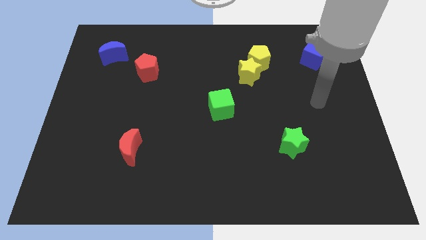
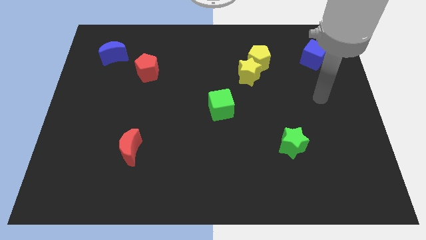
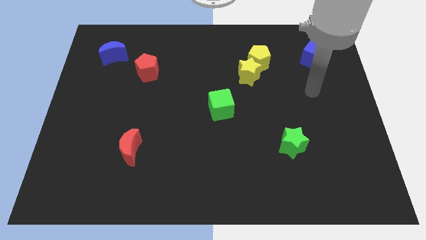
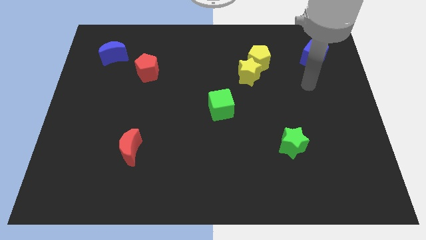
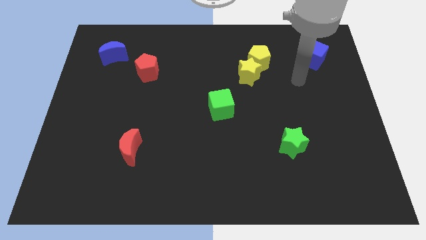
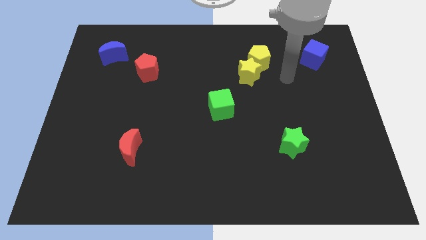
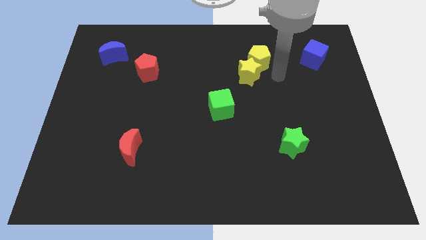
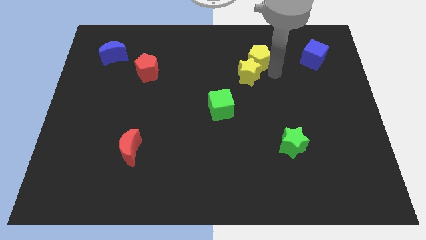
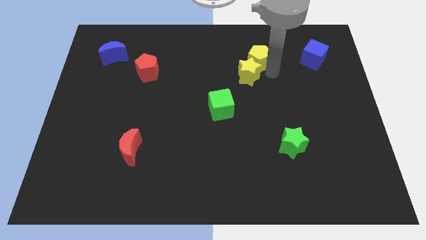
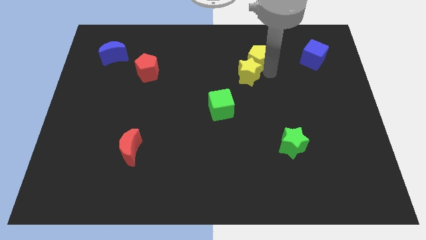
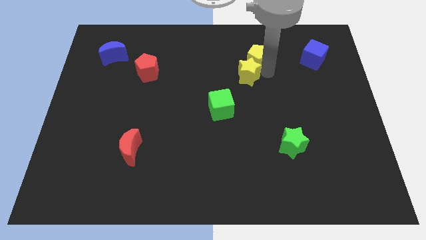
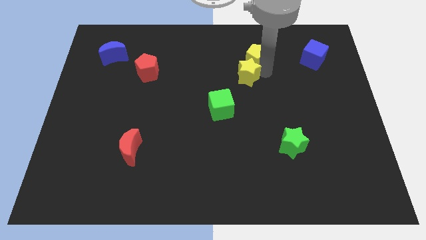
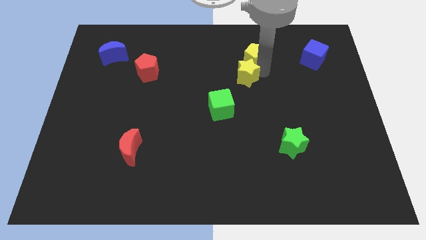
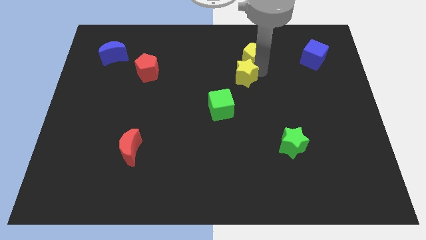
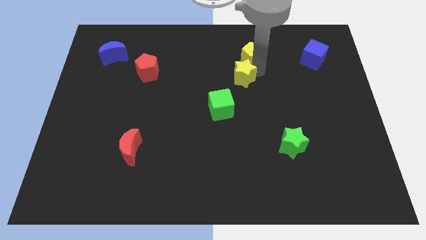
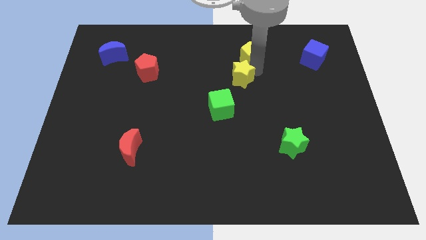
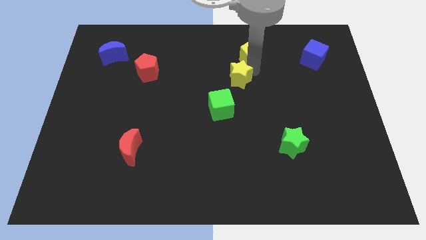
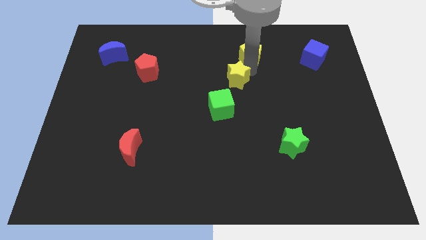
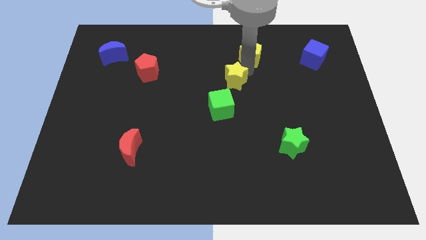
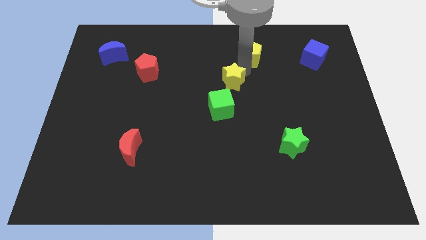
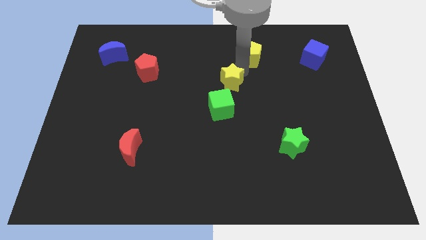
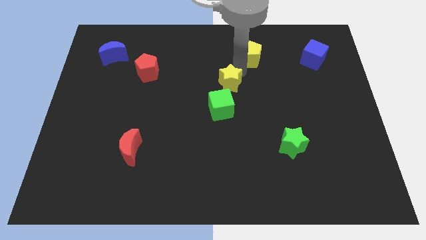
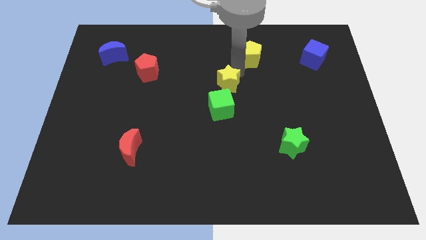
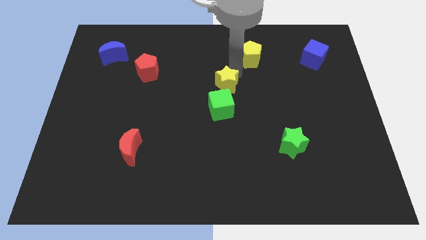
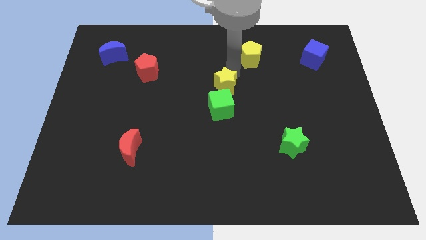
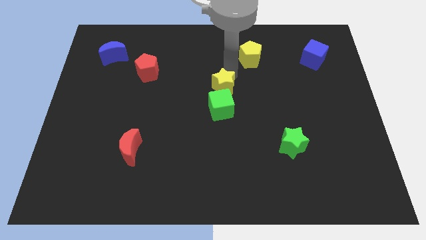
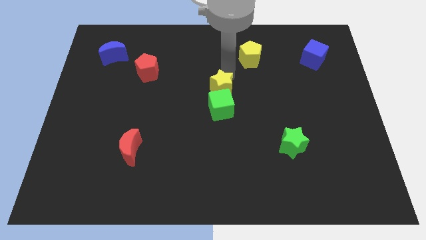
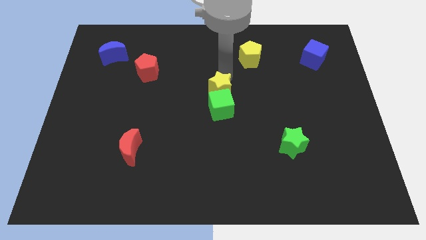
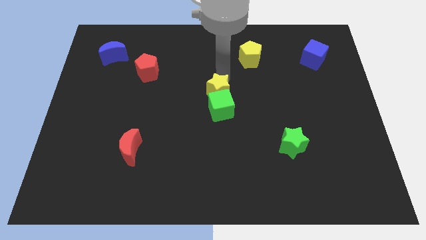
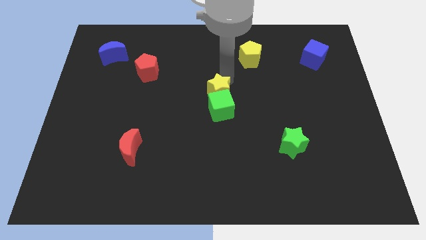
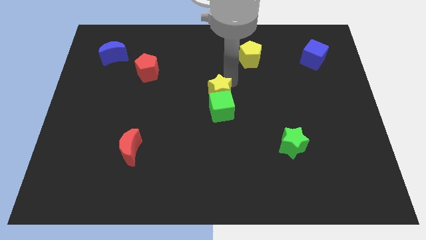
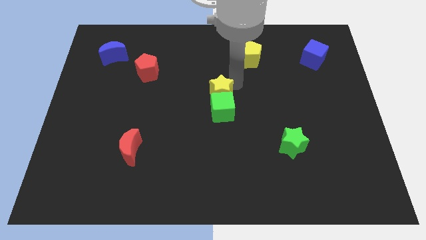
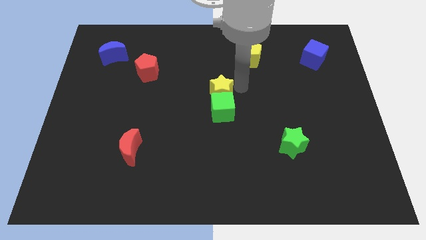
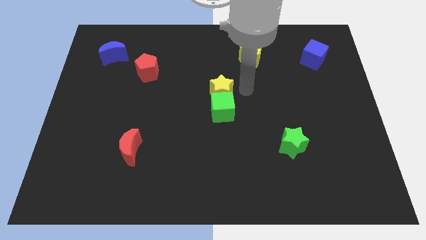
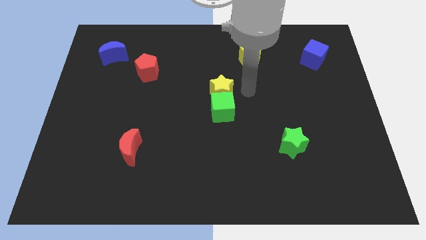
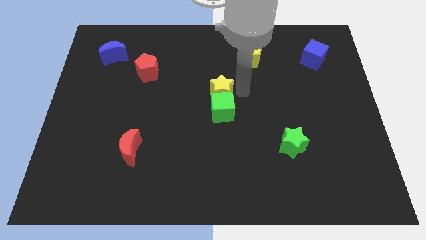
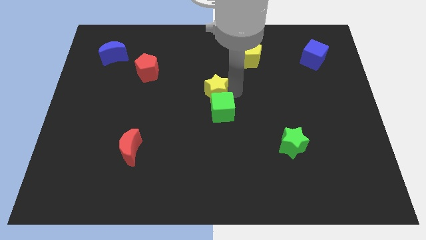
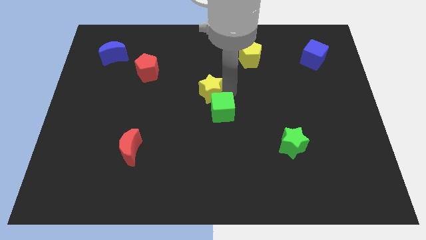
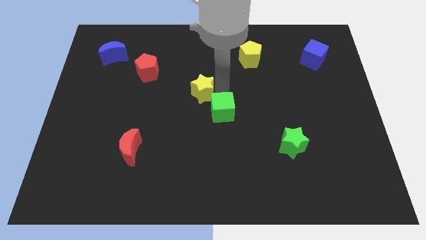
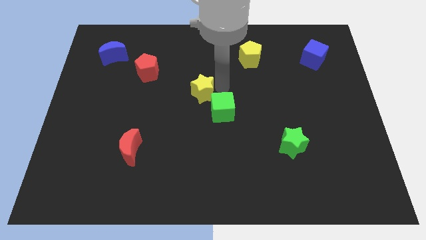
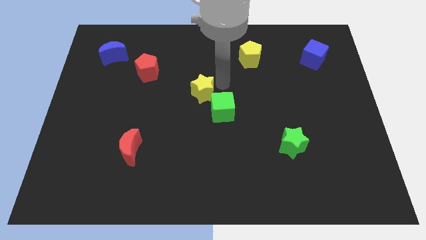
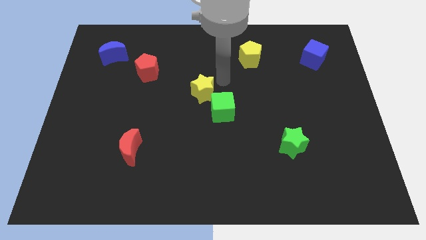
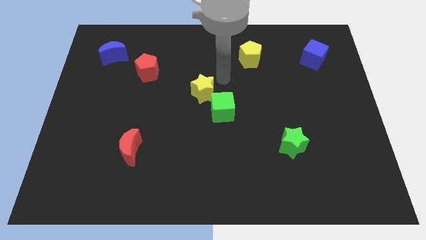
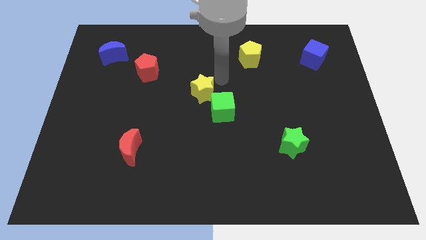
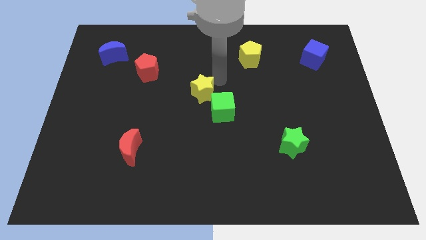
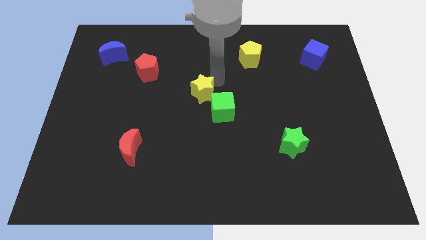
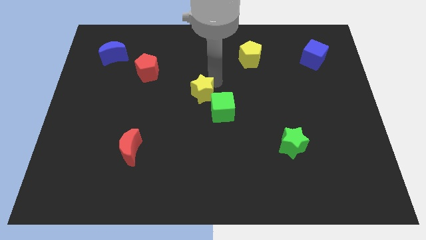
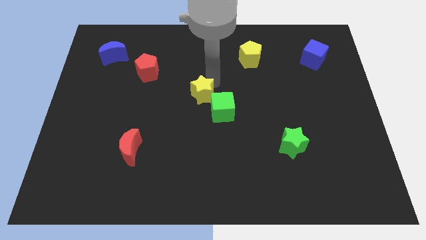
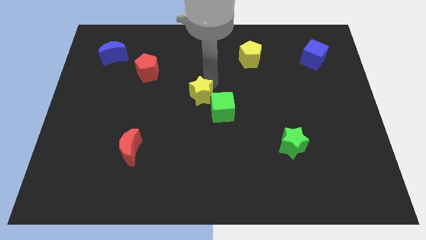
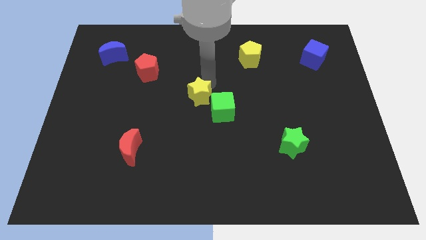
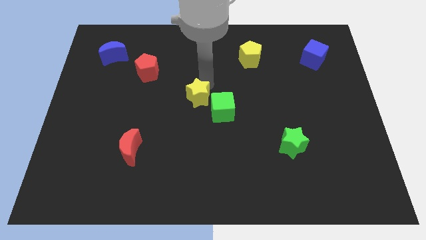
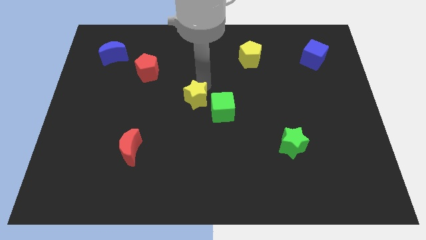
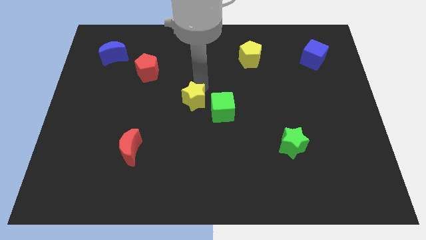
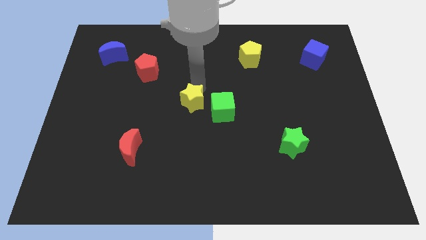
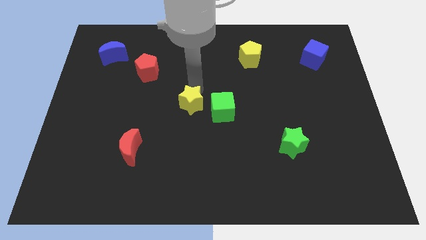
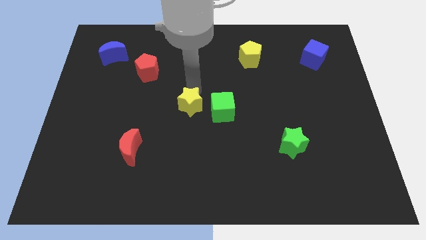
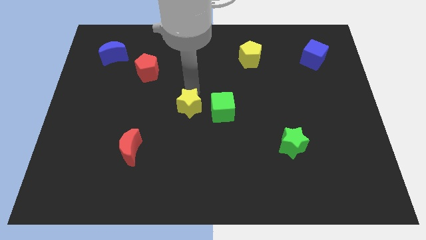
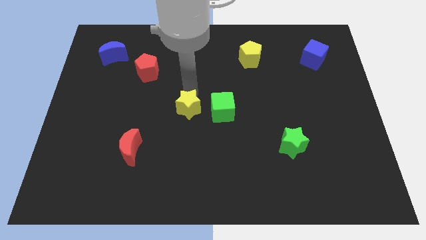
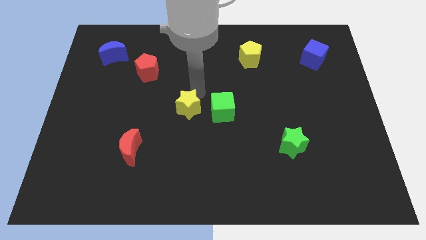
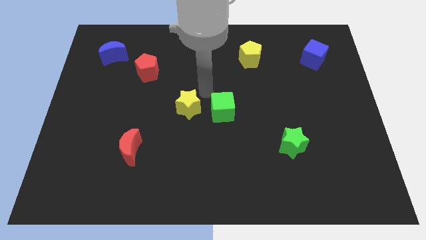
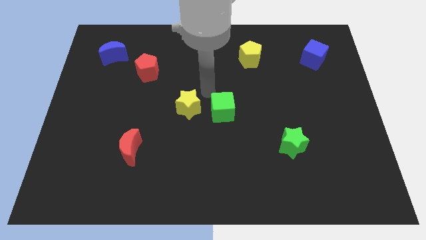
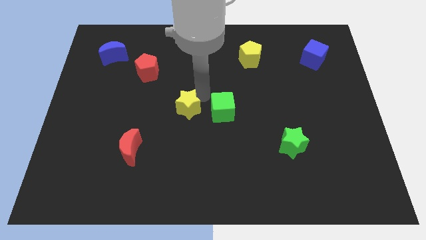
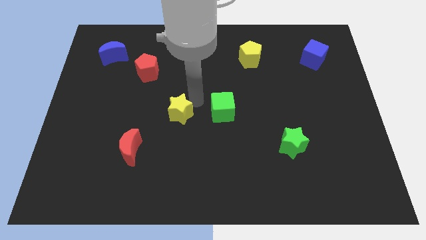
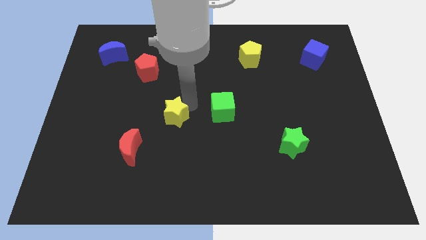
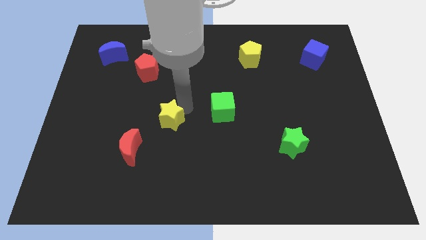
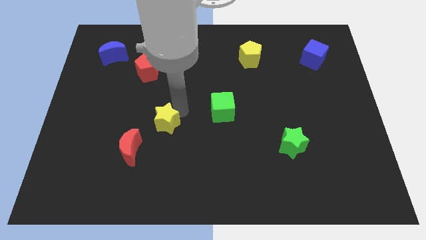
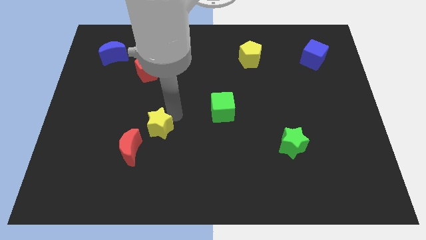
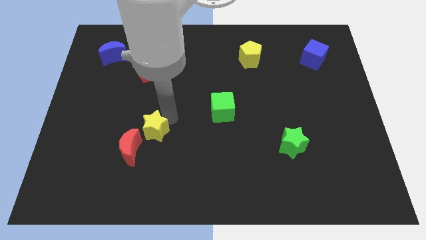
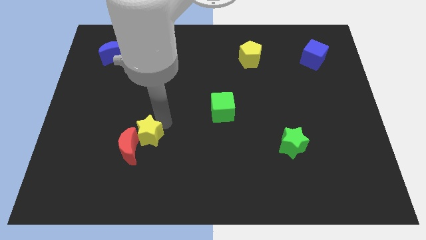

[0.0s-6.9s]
push the yellow star close to the red moon

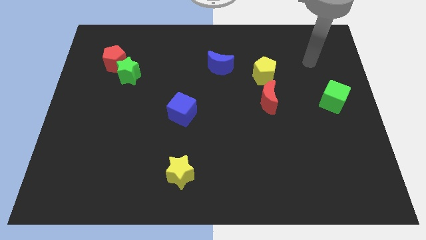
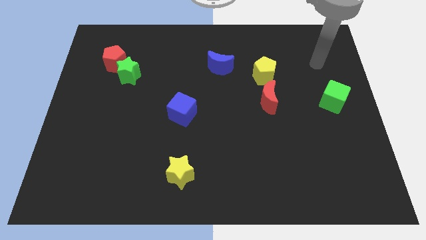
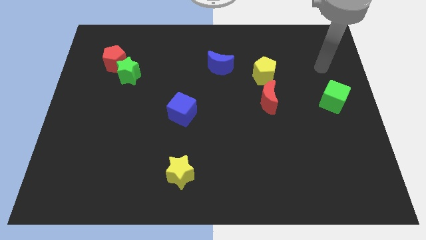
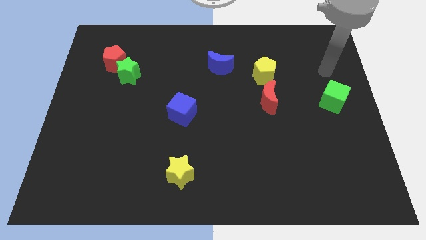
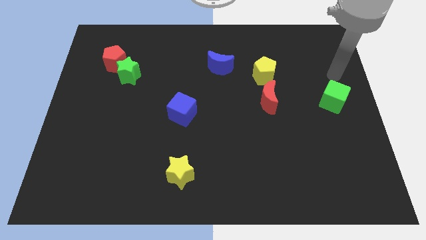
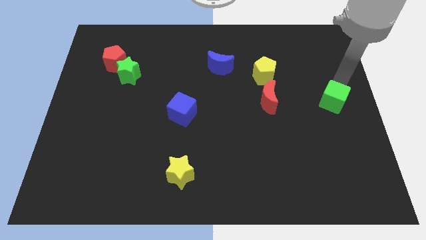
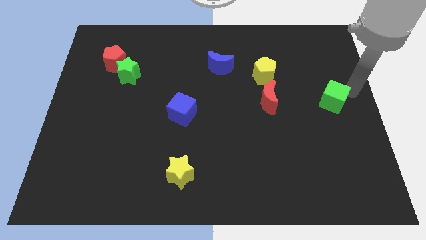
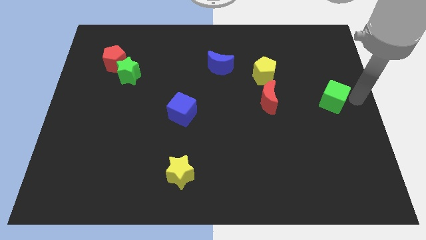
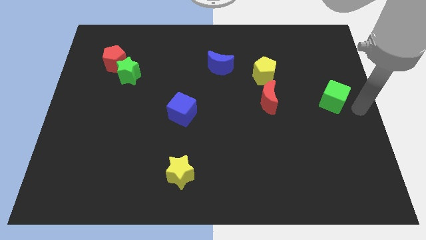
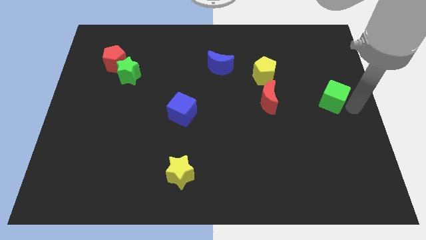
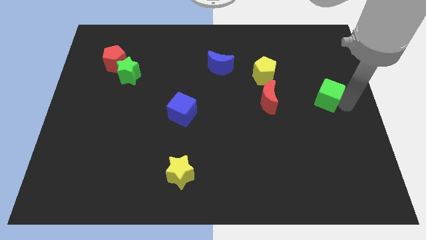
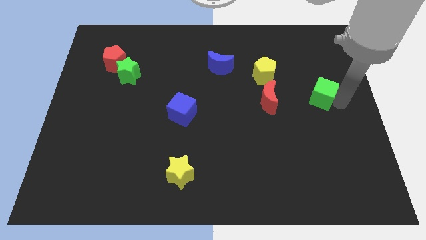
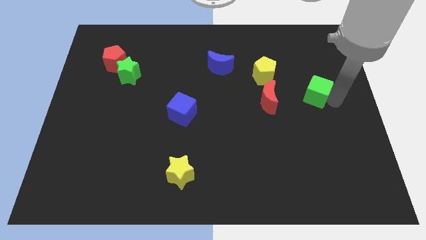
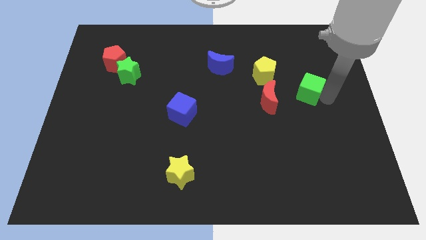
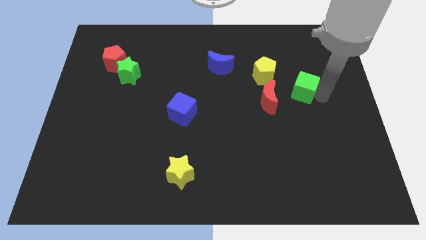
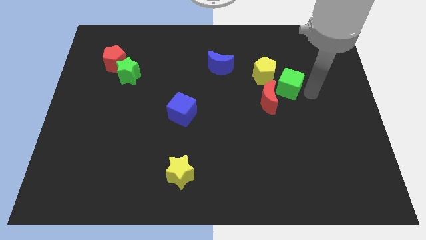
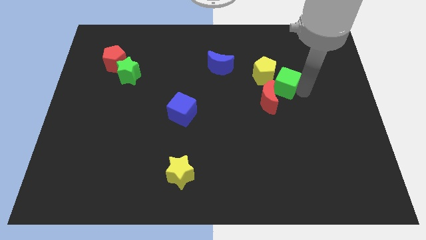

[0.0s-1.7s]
put the green cube to the yellow pentagon
